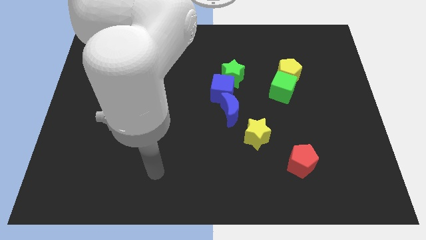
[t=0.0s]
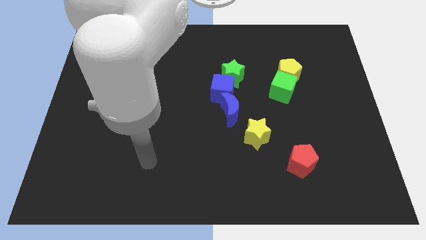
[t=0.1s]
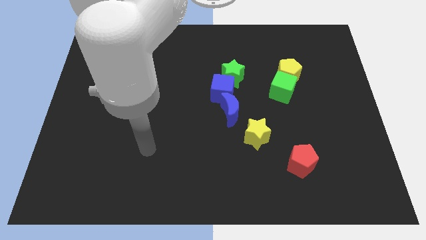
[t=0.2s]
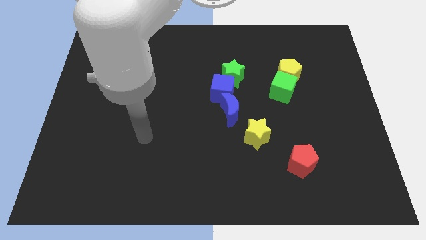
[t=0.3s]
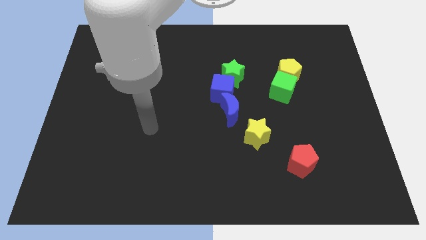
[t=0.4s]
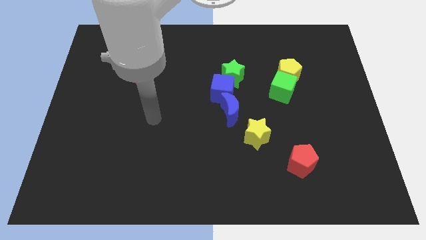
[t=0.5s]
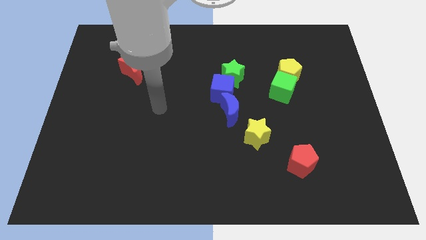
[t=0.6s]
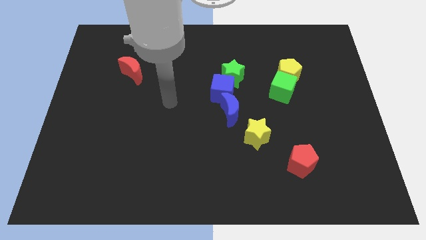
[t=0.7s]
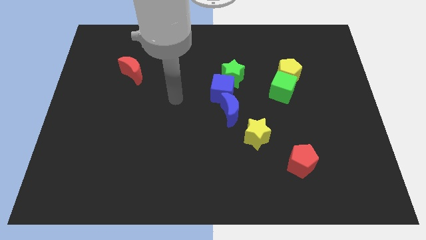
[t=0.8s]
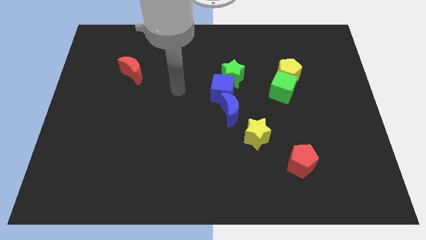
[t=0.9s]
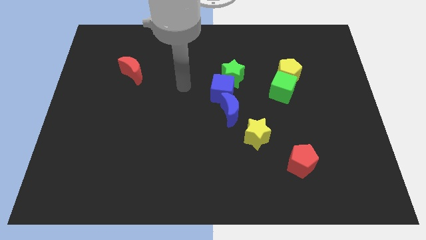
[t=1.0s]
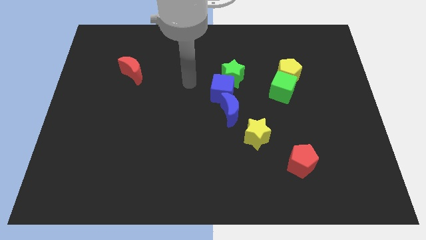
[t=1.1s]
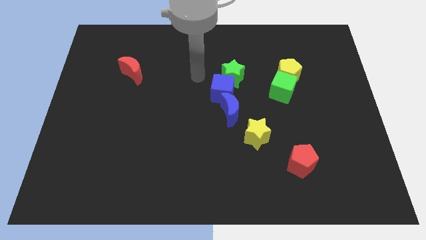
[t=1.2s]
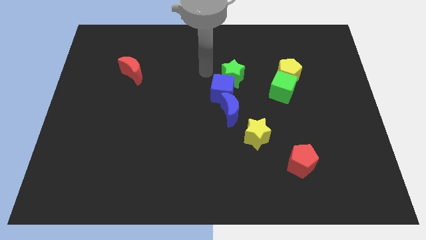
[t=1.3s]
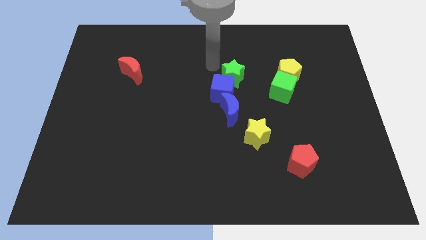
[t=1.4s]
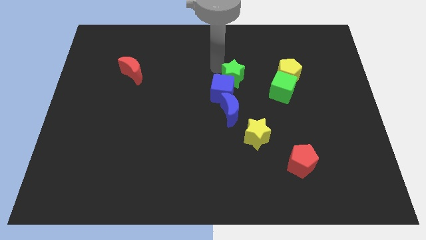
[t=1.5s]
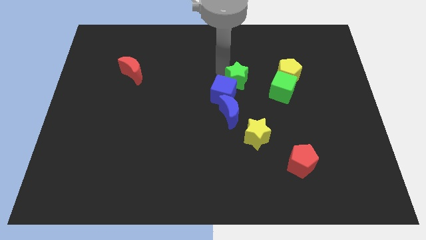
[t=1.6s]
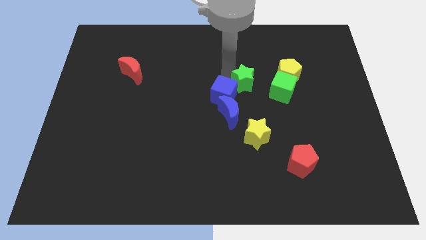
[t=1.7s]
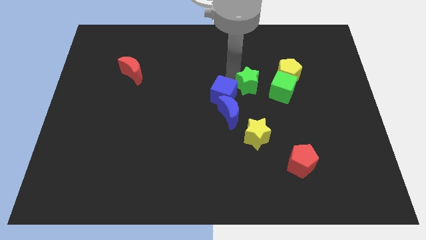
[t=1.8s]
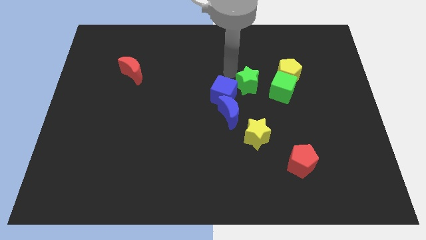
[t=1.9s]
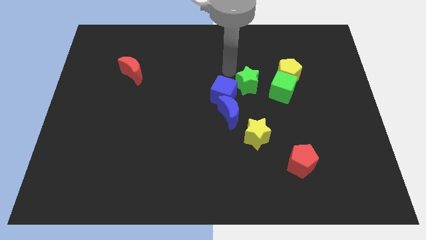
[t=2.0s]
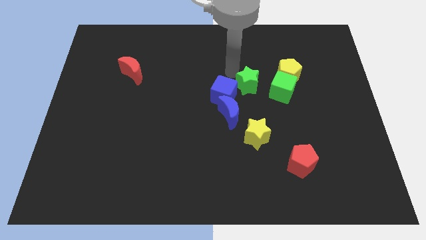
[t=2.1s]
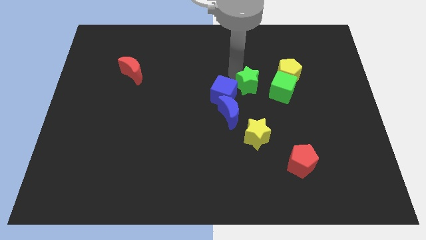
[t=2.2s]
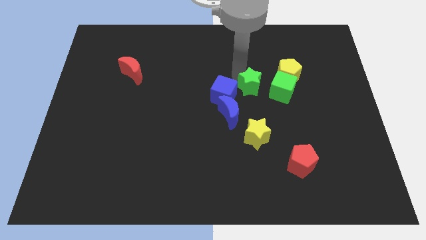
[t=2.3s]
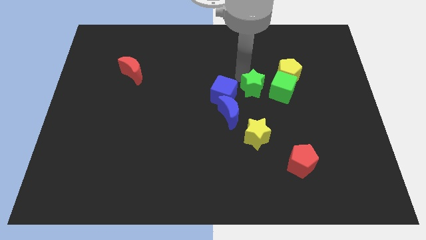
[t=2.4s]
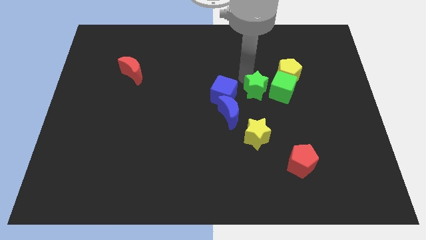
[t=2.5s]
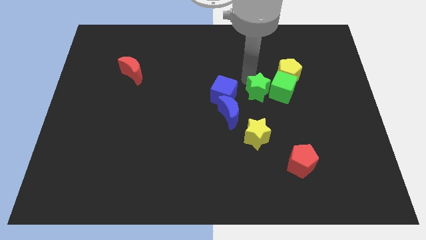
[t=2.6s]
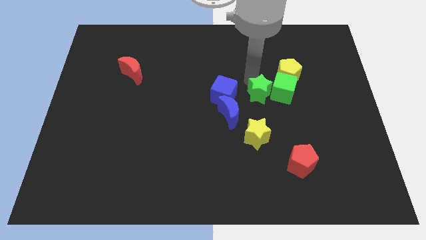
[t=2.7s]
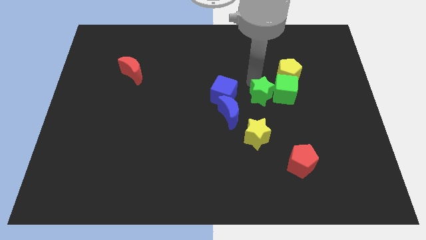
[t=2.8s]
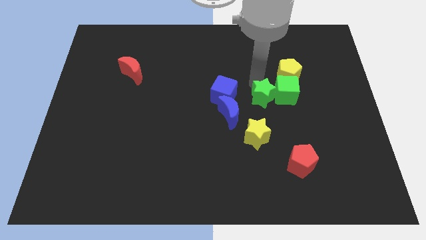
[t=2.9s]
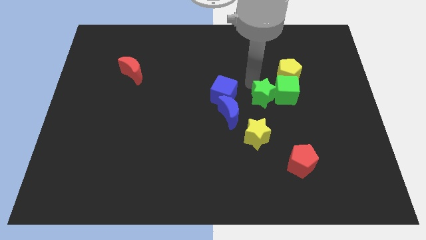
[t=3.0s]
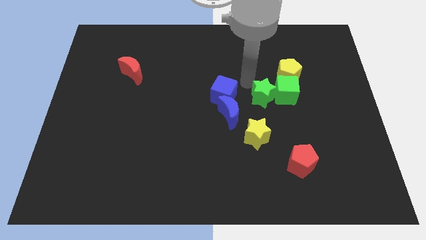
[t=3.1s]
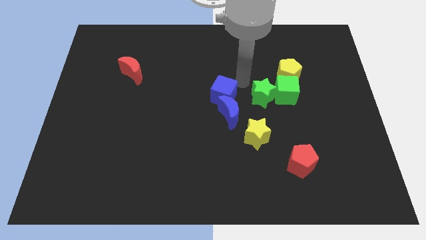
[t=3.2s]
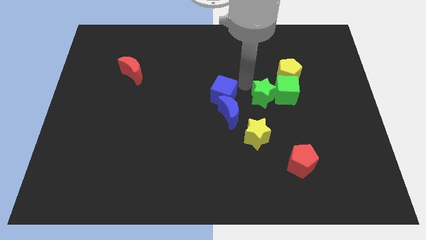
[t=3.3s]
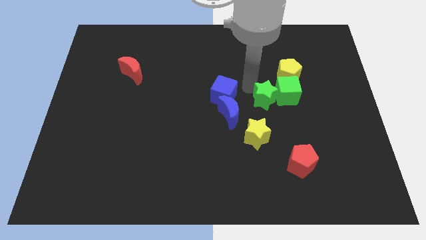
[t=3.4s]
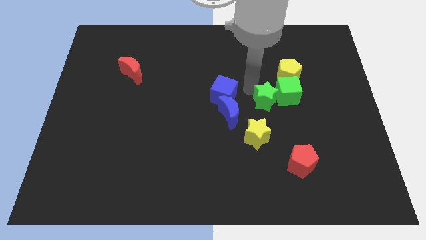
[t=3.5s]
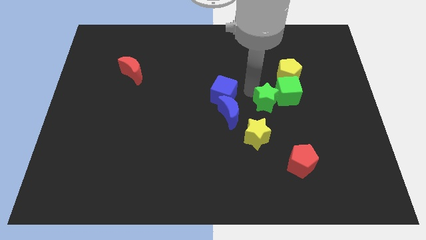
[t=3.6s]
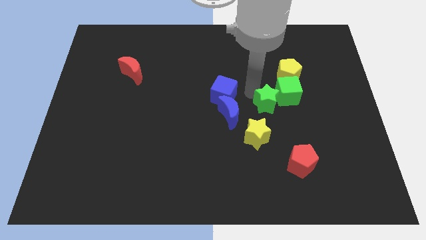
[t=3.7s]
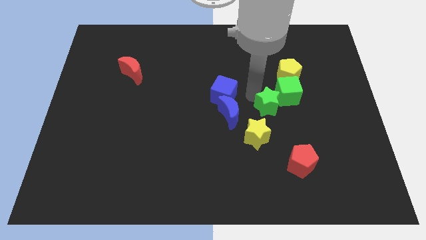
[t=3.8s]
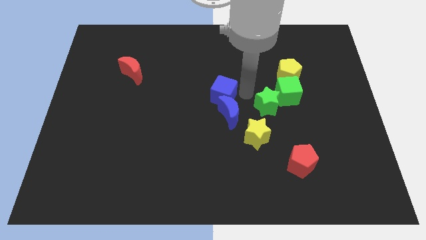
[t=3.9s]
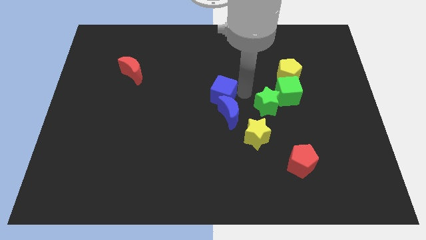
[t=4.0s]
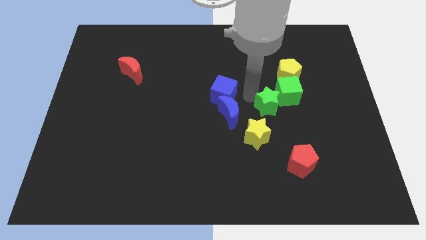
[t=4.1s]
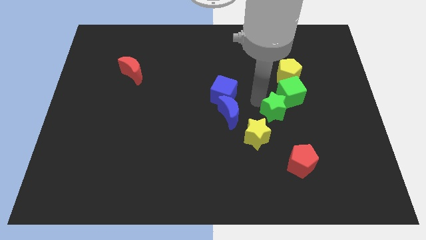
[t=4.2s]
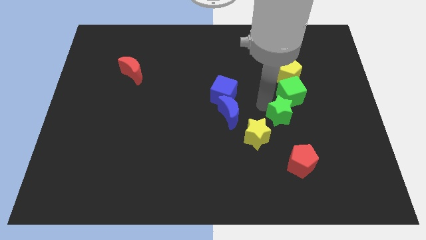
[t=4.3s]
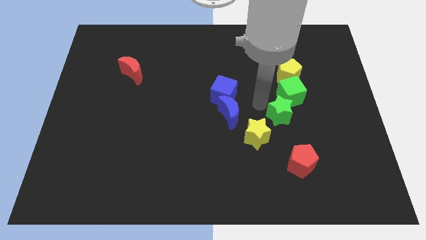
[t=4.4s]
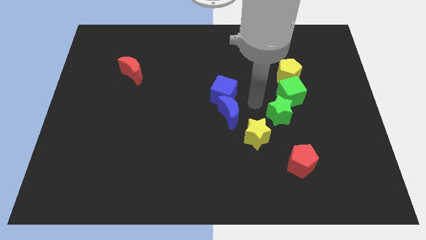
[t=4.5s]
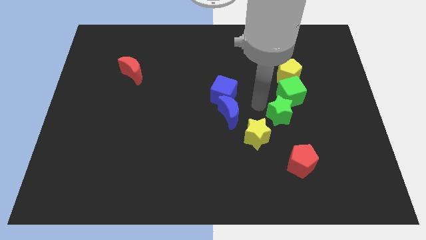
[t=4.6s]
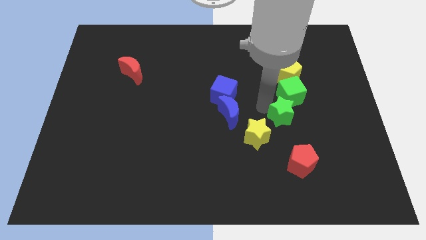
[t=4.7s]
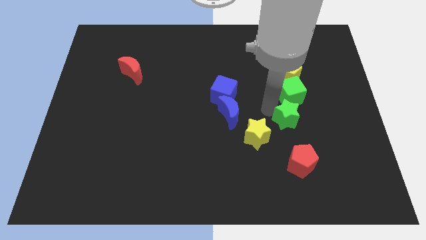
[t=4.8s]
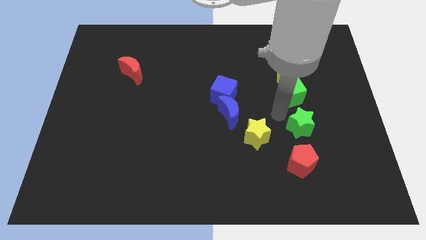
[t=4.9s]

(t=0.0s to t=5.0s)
slide the green star down and to the right diagonally

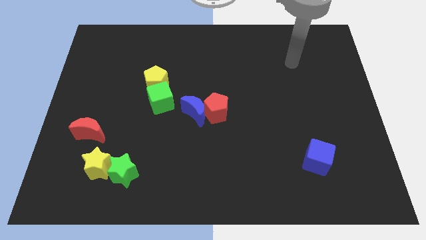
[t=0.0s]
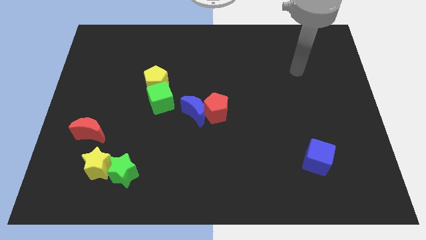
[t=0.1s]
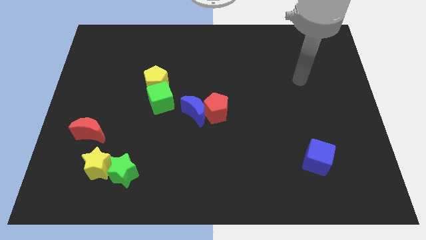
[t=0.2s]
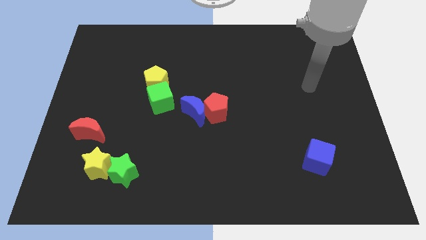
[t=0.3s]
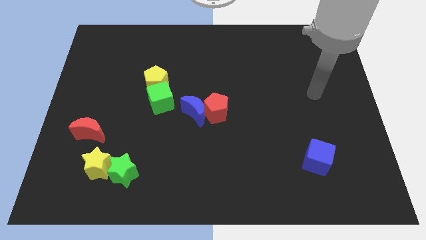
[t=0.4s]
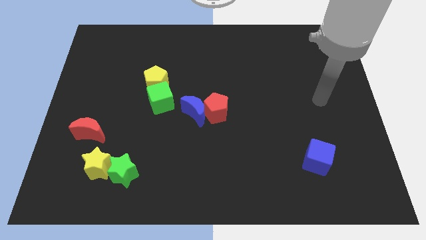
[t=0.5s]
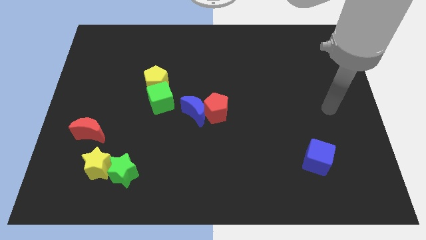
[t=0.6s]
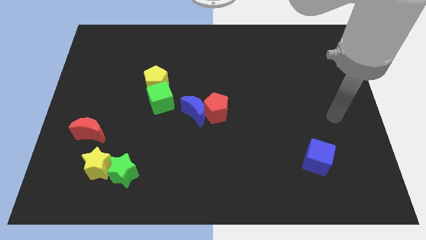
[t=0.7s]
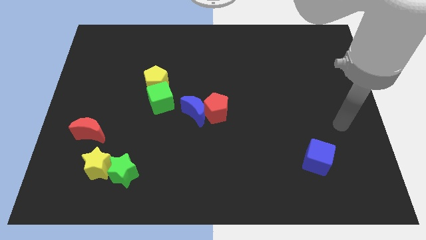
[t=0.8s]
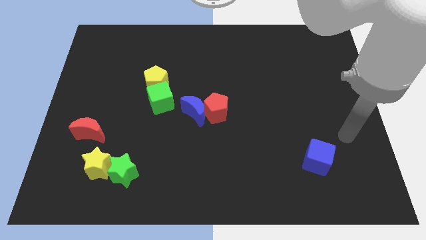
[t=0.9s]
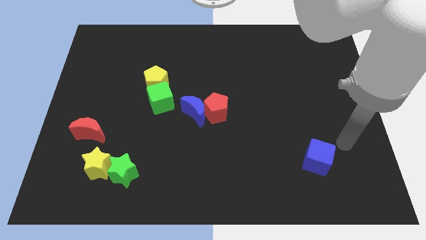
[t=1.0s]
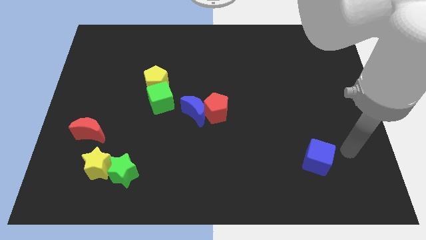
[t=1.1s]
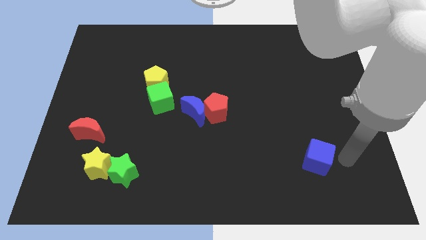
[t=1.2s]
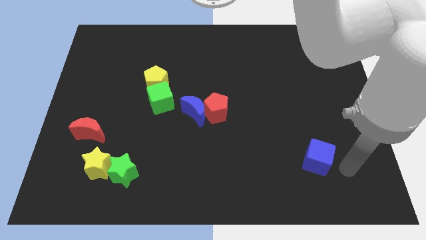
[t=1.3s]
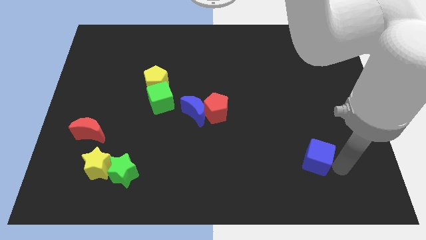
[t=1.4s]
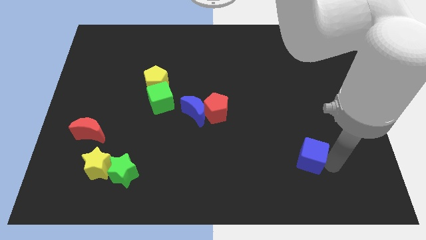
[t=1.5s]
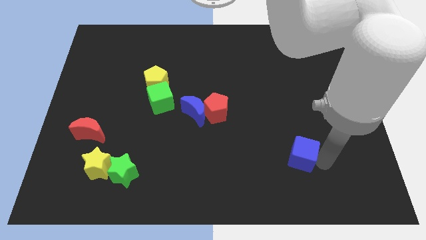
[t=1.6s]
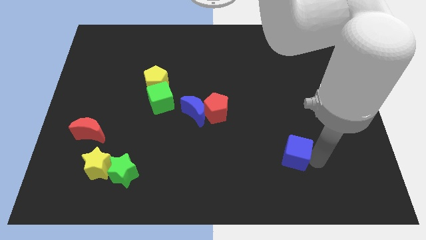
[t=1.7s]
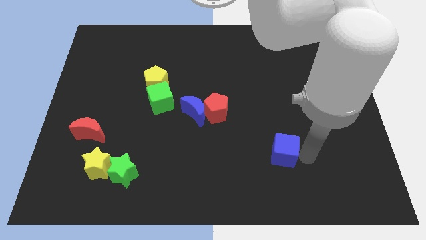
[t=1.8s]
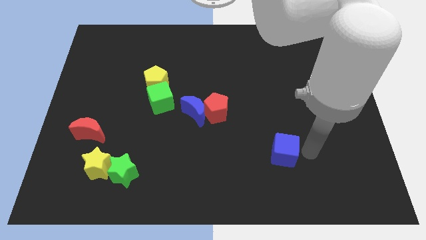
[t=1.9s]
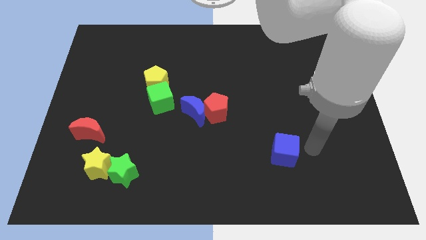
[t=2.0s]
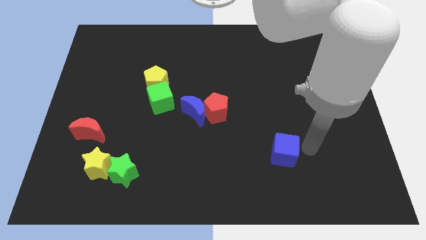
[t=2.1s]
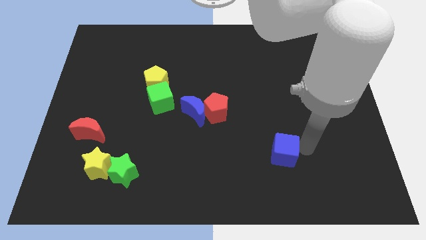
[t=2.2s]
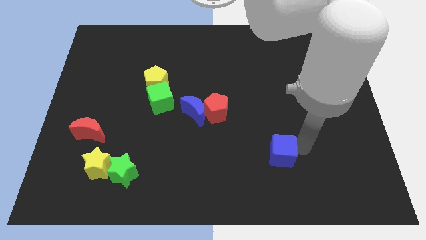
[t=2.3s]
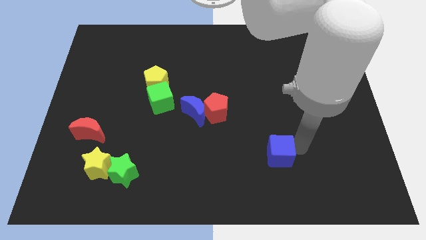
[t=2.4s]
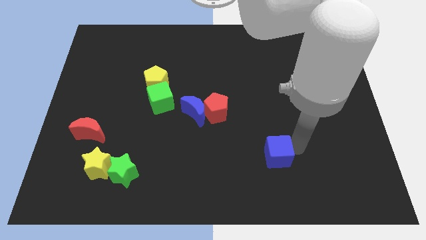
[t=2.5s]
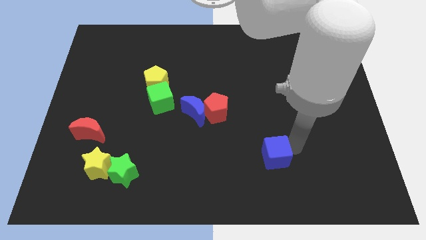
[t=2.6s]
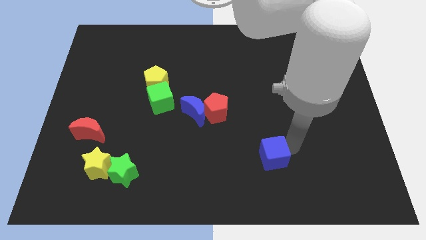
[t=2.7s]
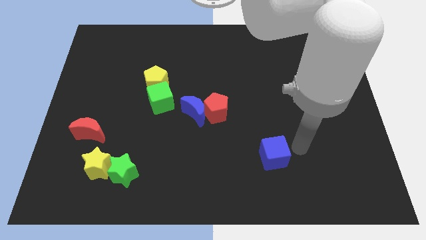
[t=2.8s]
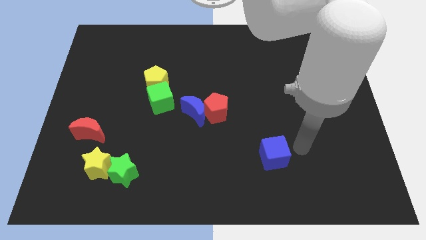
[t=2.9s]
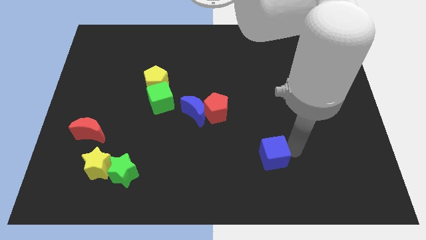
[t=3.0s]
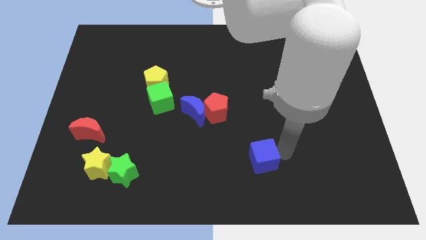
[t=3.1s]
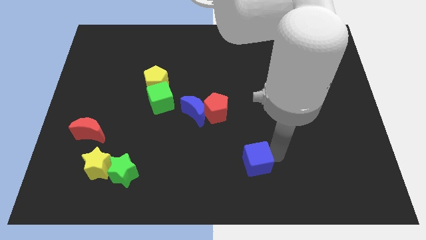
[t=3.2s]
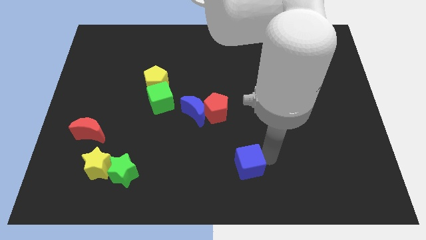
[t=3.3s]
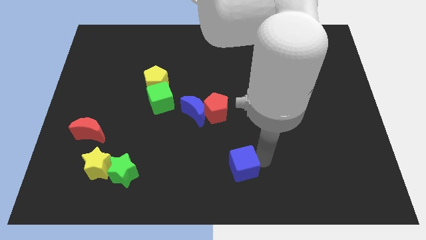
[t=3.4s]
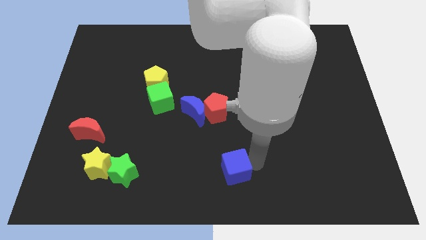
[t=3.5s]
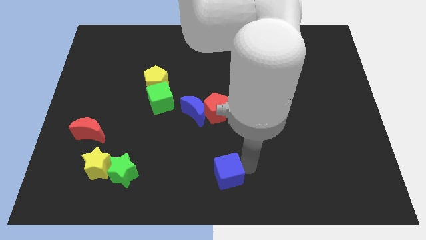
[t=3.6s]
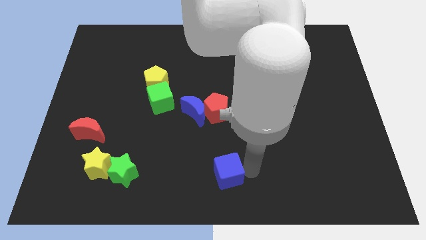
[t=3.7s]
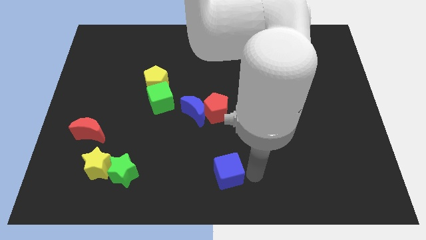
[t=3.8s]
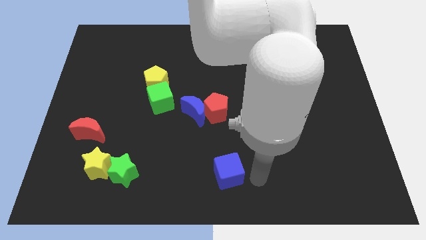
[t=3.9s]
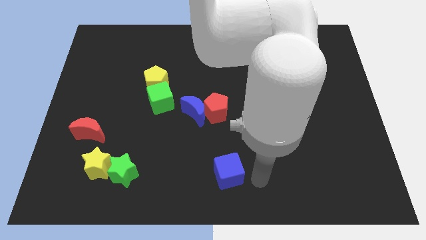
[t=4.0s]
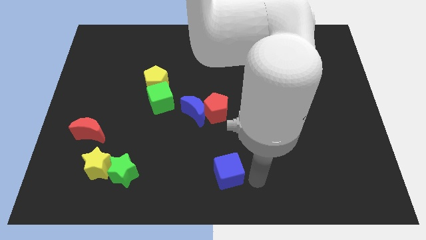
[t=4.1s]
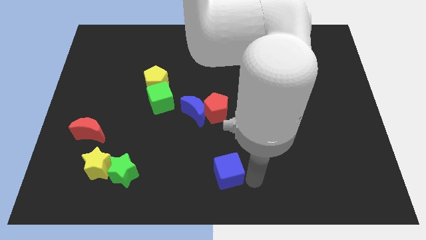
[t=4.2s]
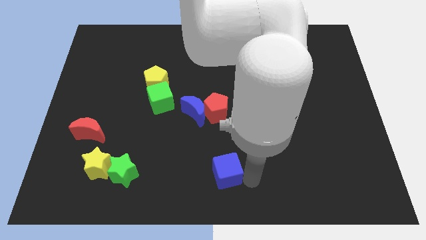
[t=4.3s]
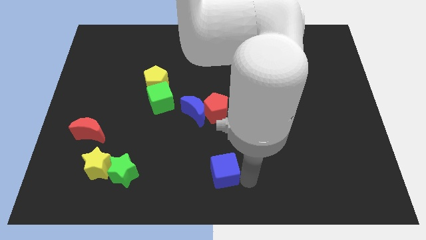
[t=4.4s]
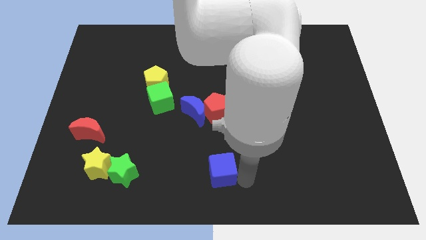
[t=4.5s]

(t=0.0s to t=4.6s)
slide the blue cube left
